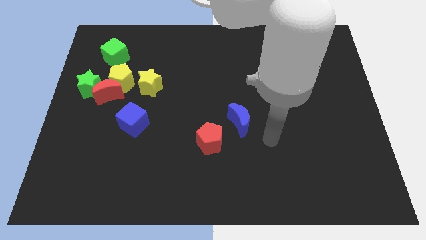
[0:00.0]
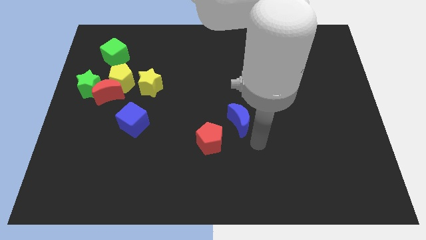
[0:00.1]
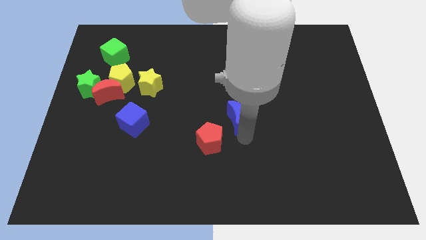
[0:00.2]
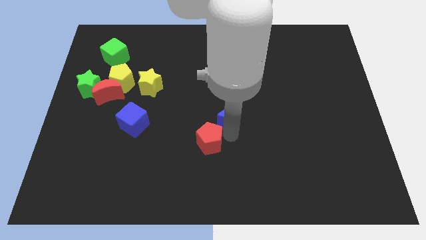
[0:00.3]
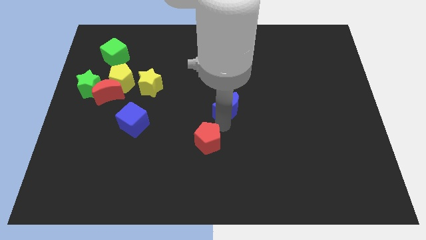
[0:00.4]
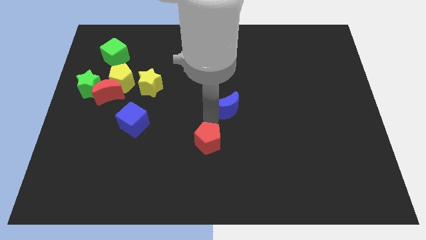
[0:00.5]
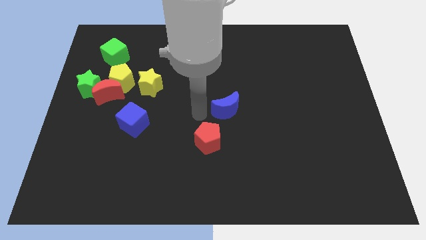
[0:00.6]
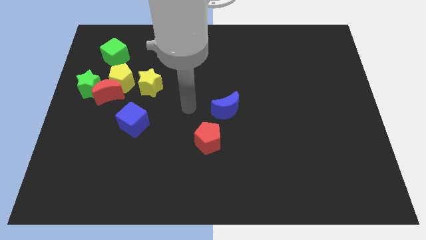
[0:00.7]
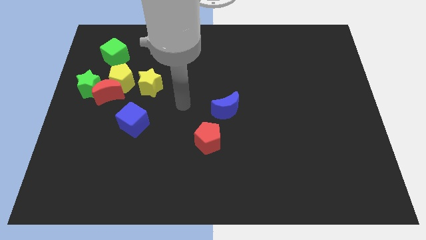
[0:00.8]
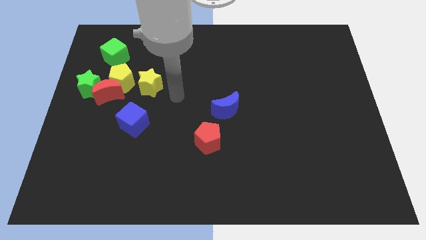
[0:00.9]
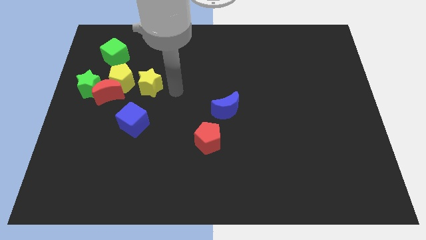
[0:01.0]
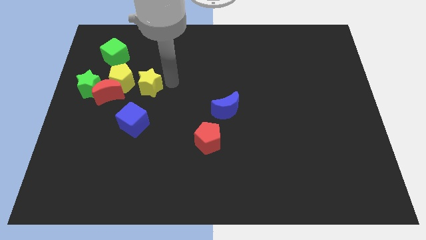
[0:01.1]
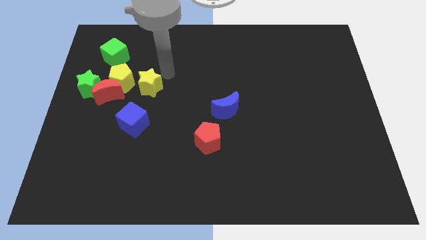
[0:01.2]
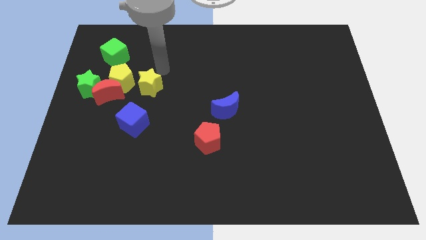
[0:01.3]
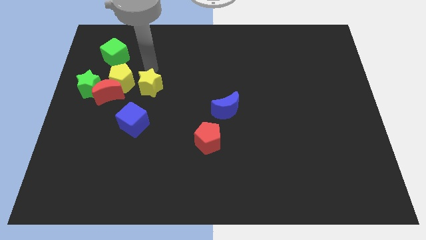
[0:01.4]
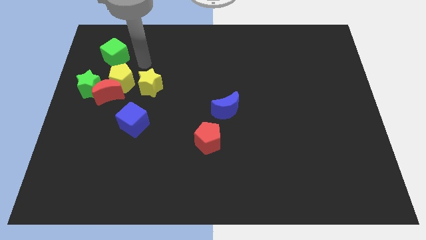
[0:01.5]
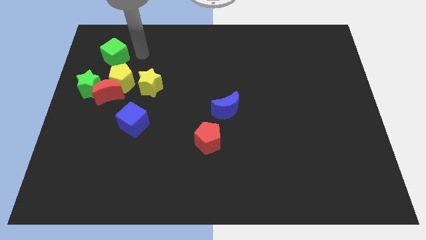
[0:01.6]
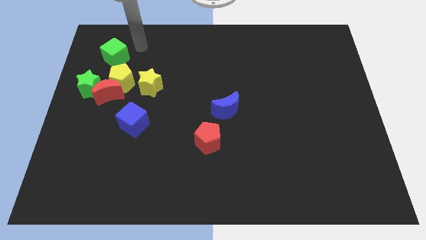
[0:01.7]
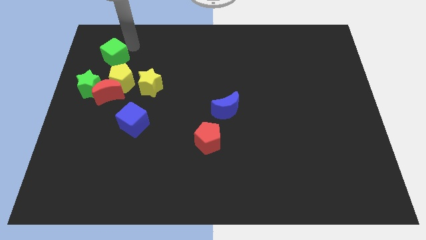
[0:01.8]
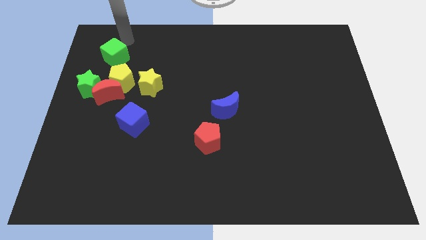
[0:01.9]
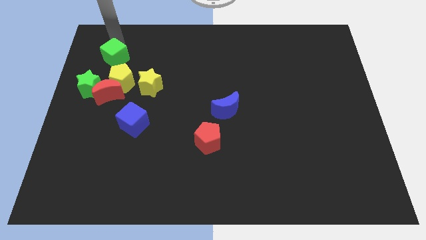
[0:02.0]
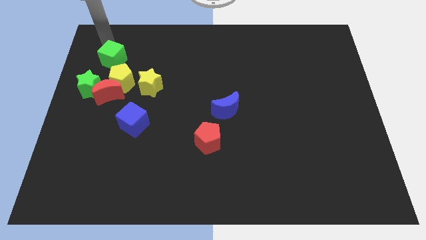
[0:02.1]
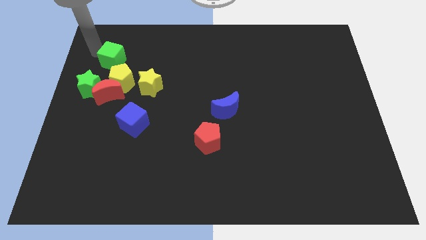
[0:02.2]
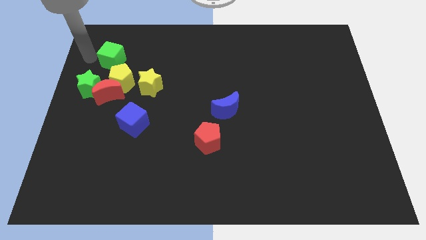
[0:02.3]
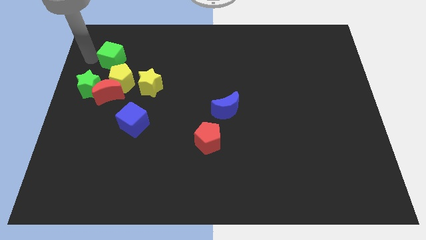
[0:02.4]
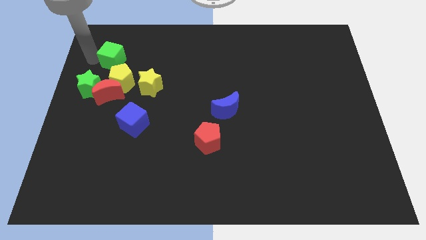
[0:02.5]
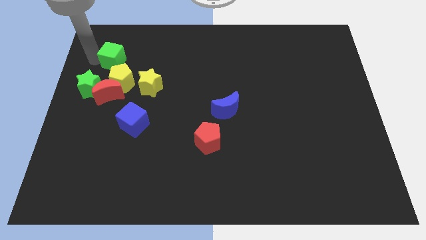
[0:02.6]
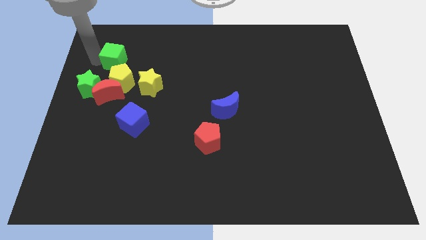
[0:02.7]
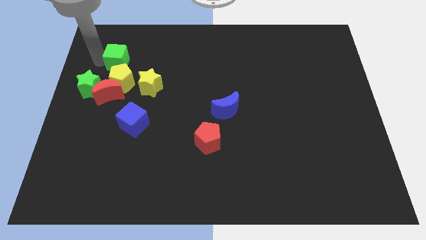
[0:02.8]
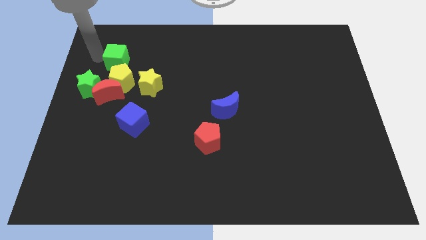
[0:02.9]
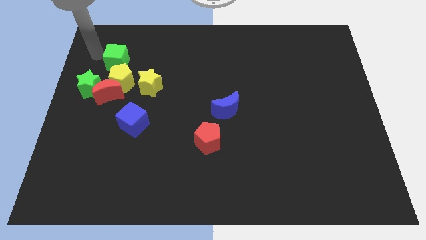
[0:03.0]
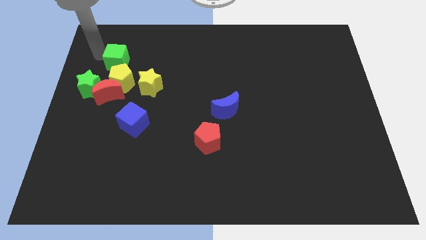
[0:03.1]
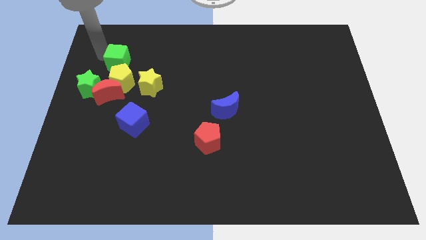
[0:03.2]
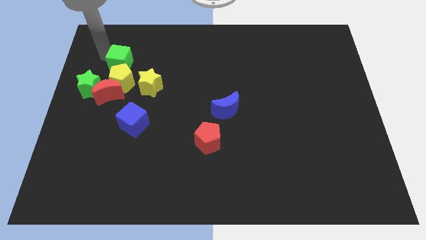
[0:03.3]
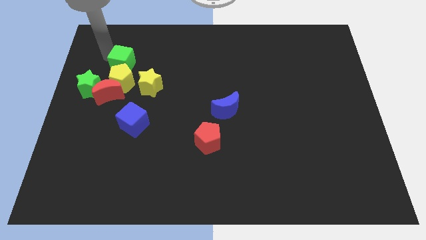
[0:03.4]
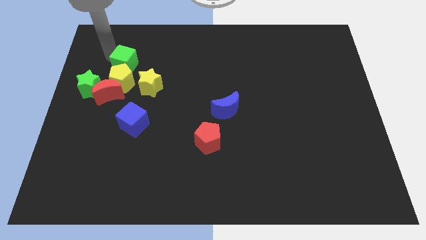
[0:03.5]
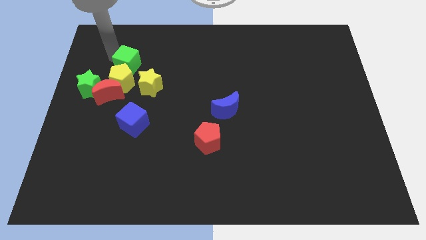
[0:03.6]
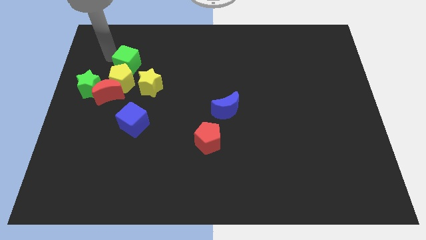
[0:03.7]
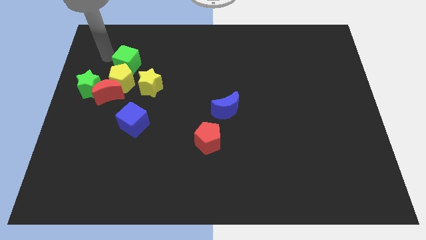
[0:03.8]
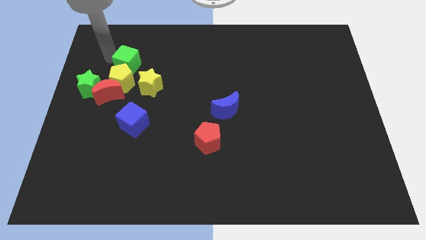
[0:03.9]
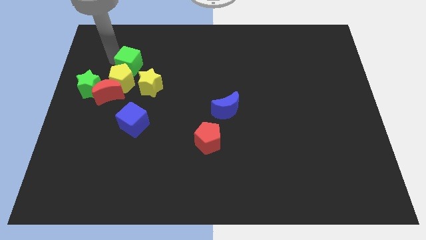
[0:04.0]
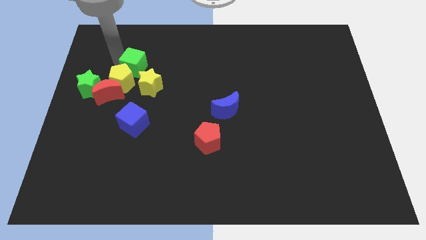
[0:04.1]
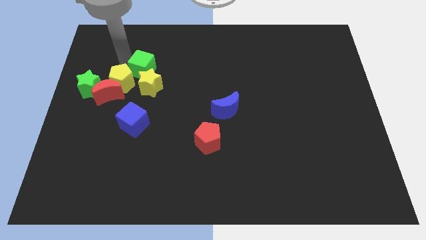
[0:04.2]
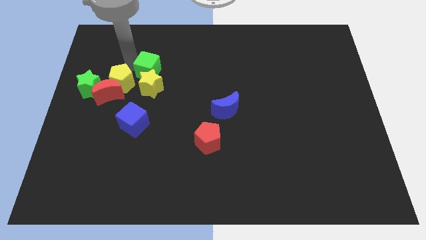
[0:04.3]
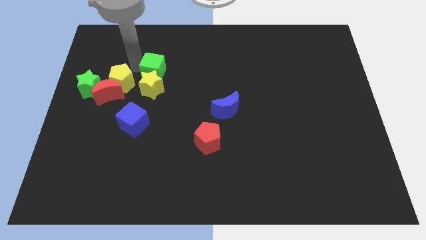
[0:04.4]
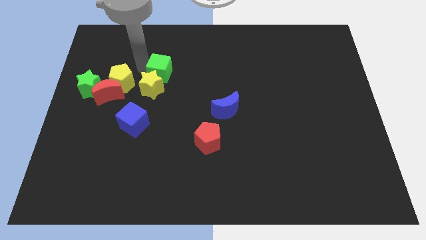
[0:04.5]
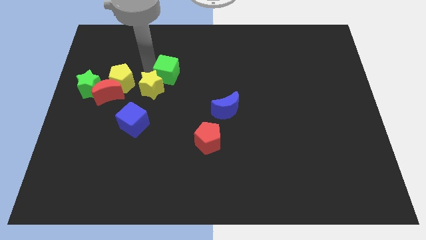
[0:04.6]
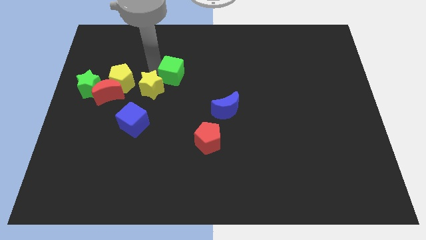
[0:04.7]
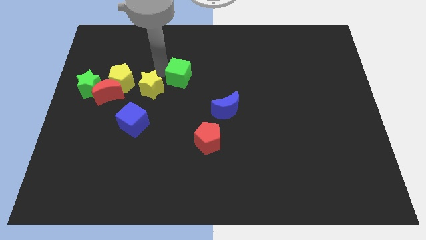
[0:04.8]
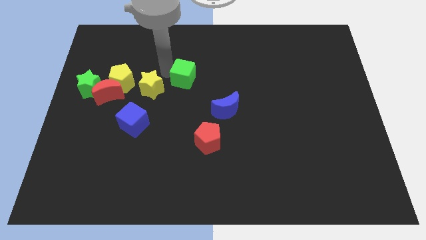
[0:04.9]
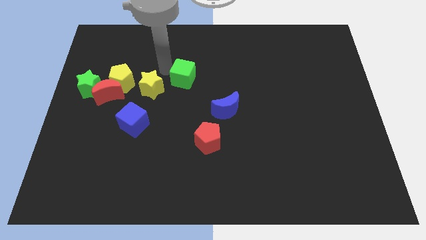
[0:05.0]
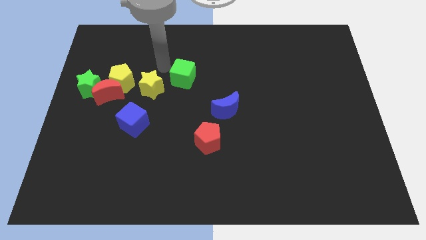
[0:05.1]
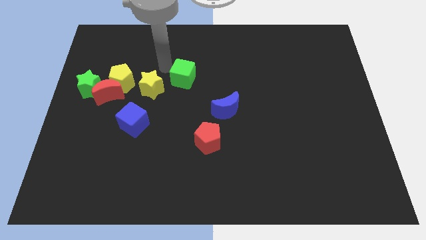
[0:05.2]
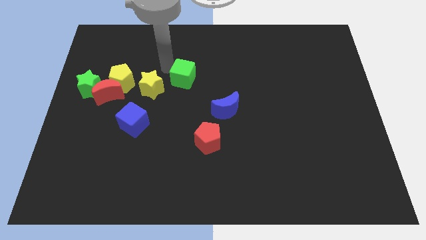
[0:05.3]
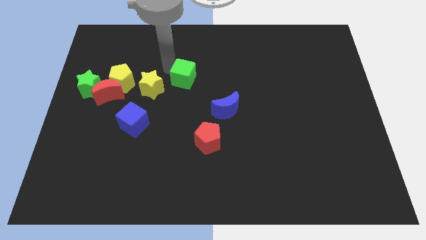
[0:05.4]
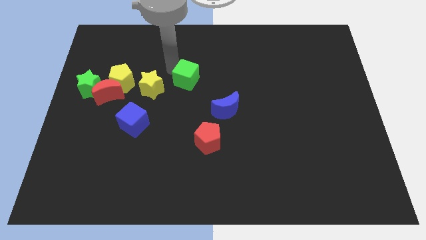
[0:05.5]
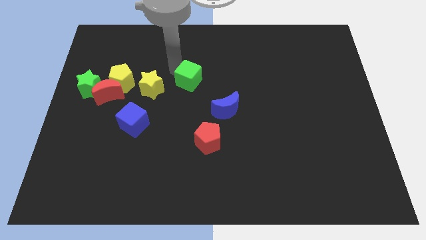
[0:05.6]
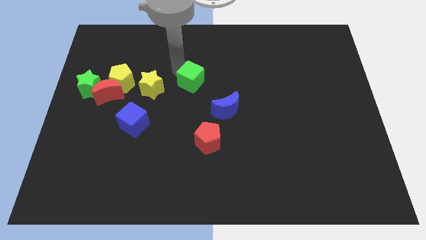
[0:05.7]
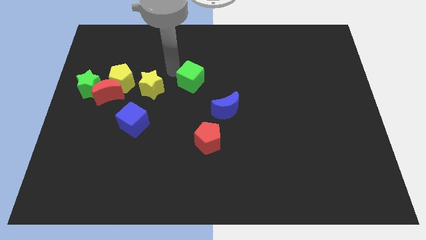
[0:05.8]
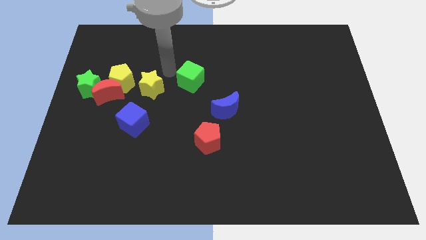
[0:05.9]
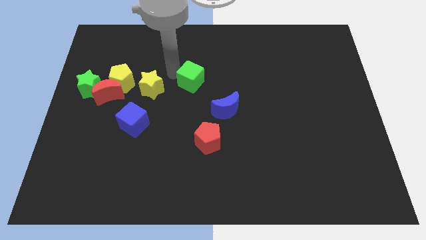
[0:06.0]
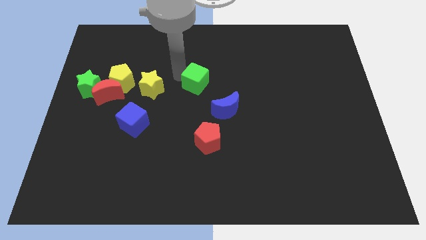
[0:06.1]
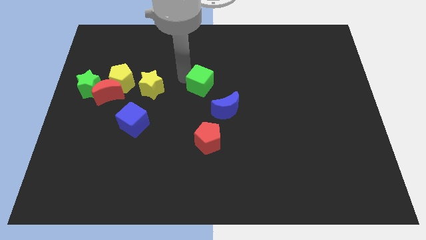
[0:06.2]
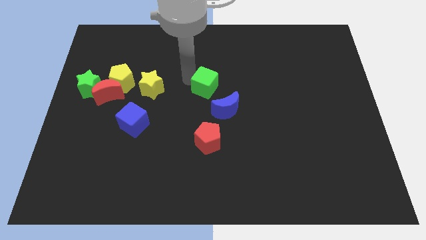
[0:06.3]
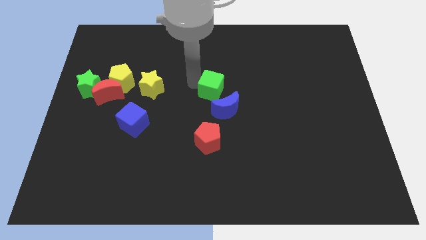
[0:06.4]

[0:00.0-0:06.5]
slide the green cube to the top of the blue moon

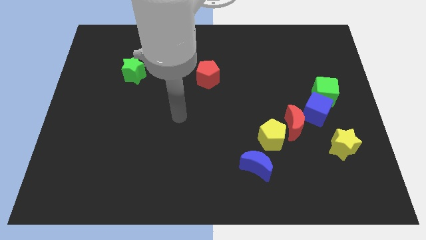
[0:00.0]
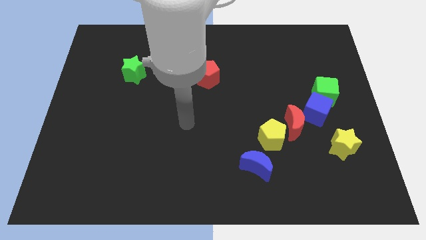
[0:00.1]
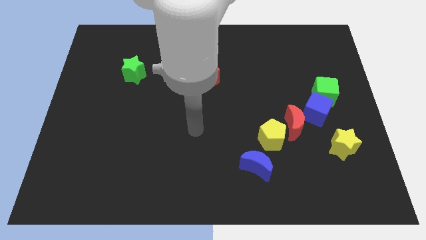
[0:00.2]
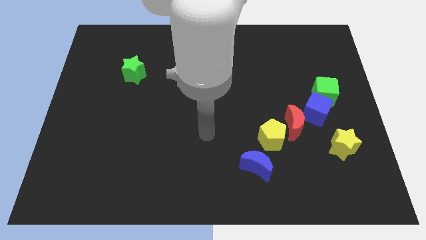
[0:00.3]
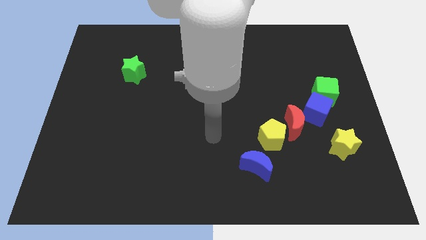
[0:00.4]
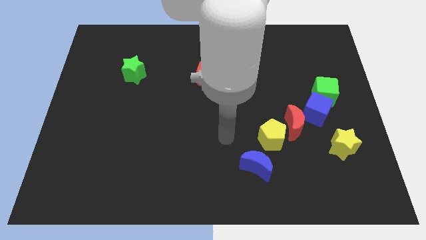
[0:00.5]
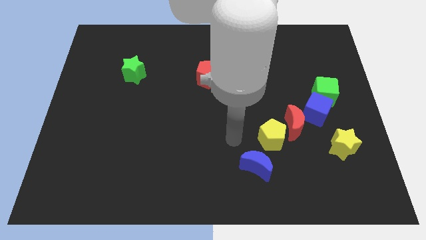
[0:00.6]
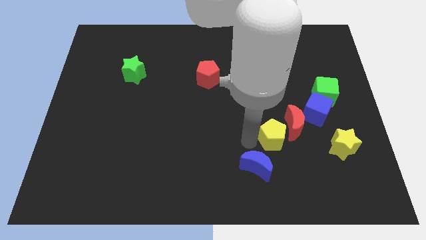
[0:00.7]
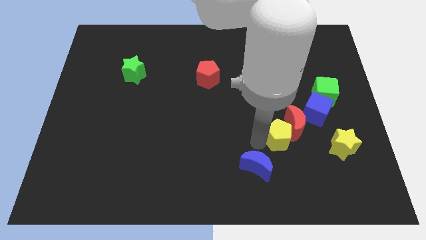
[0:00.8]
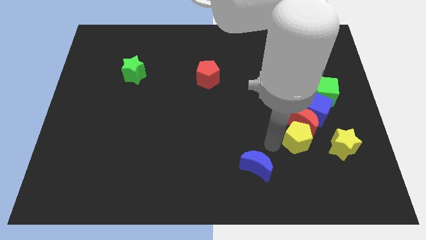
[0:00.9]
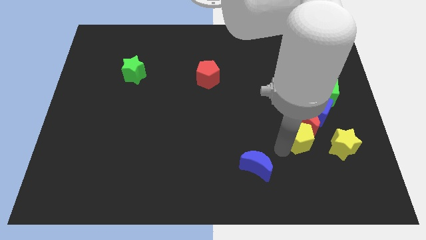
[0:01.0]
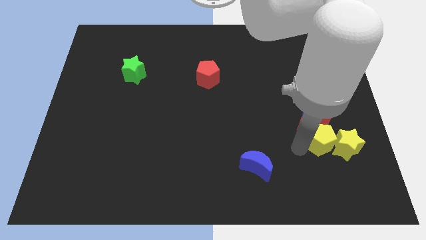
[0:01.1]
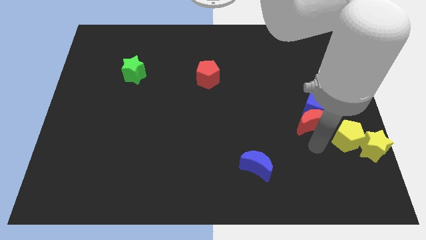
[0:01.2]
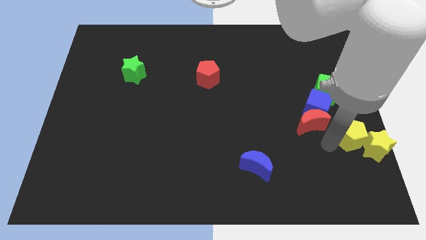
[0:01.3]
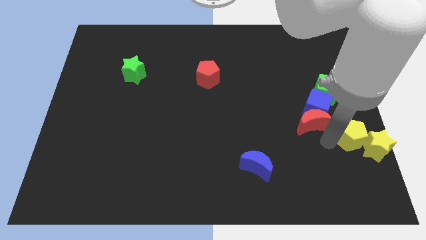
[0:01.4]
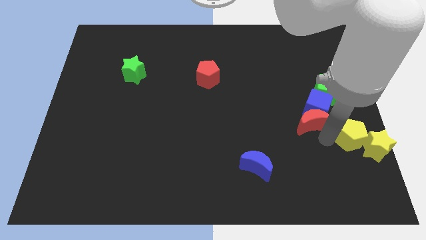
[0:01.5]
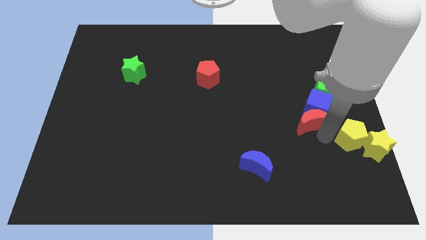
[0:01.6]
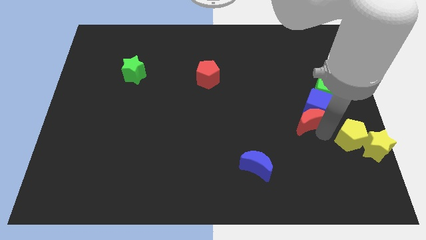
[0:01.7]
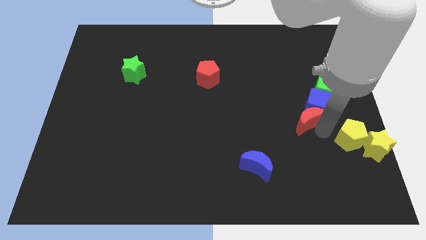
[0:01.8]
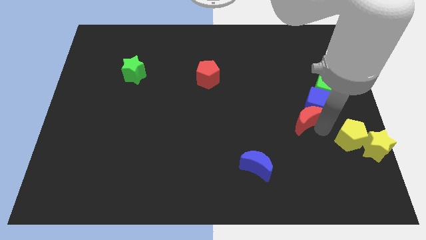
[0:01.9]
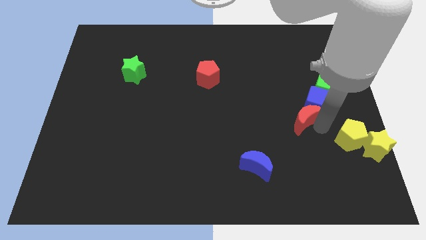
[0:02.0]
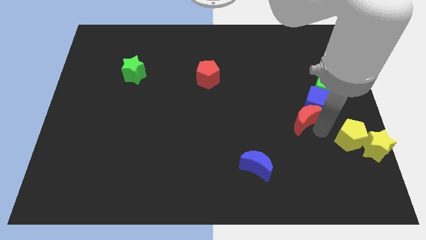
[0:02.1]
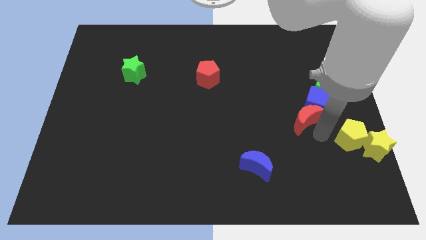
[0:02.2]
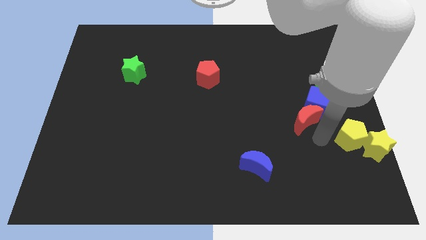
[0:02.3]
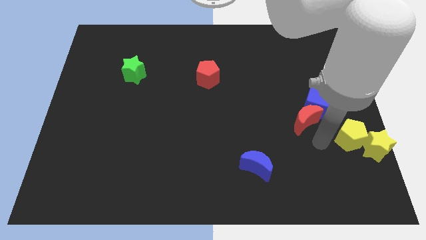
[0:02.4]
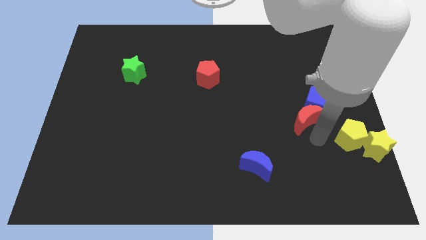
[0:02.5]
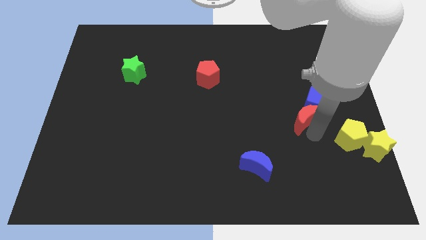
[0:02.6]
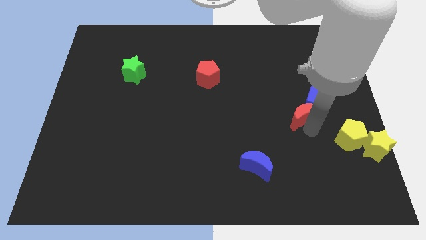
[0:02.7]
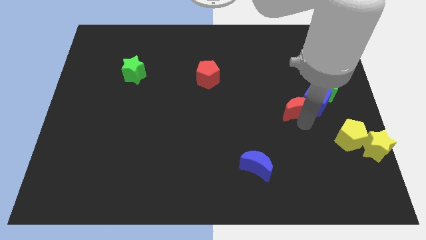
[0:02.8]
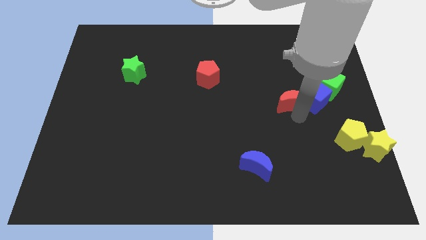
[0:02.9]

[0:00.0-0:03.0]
push the red moon to the top left of the blue cube
